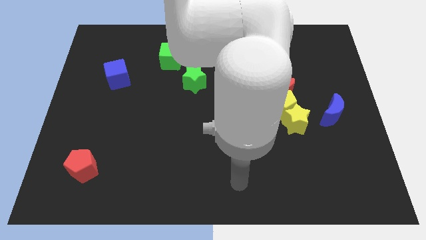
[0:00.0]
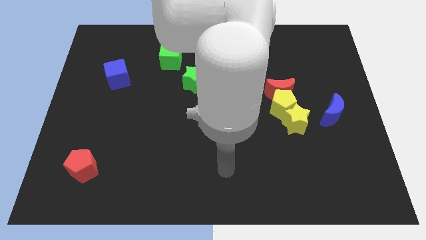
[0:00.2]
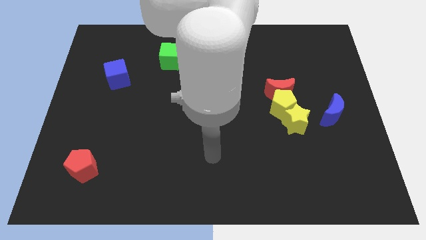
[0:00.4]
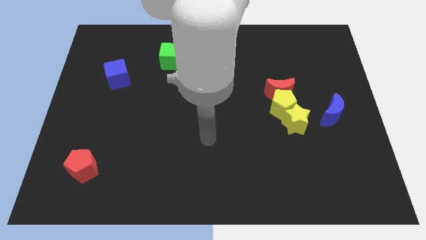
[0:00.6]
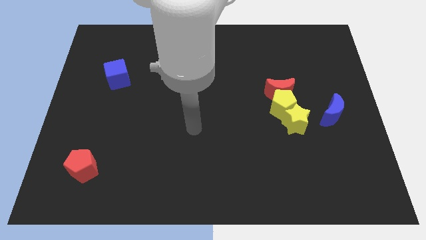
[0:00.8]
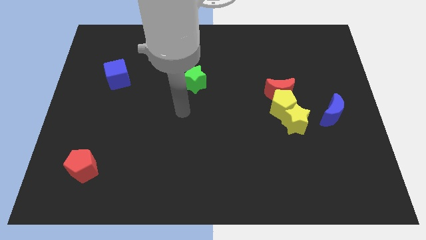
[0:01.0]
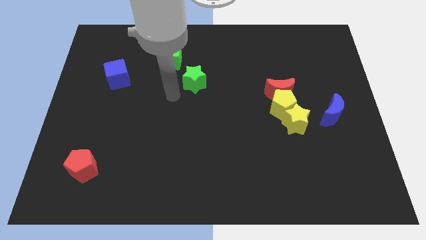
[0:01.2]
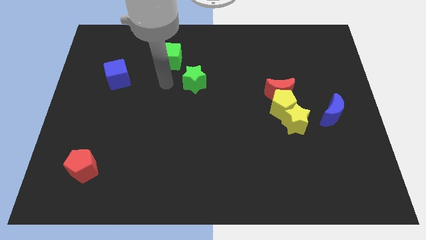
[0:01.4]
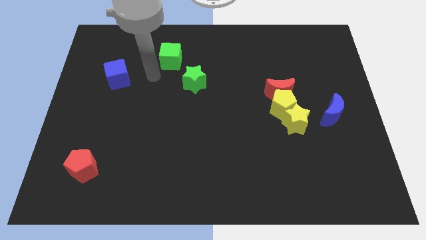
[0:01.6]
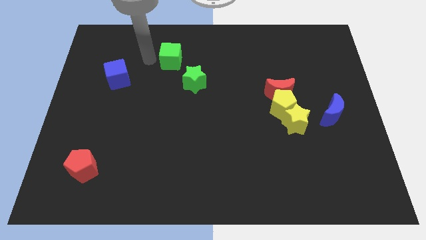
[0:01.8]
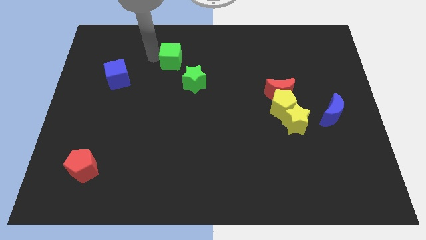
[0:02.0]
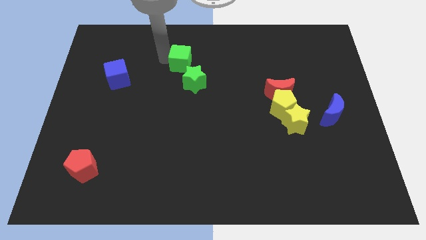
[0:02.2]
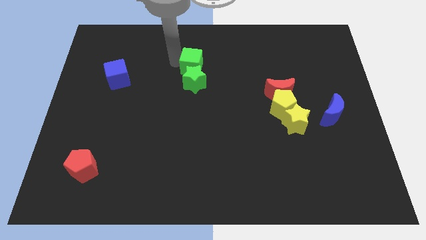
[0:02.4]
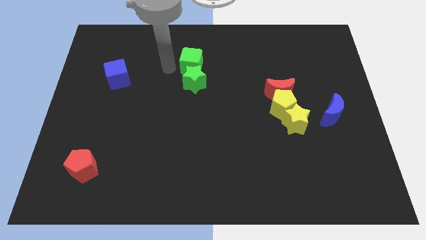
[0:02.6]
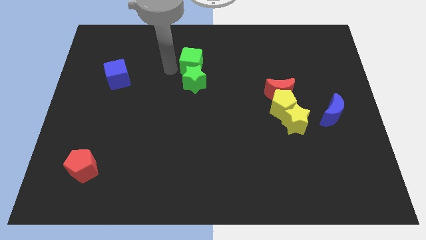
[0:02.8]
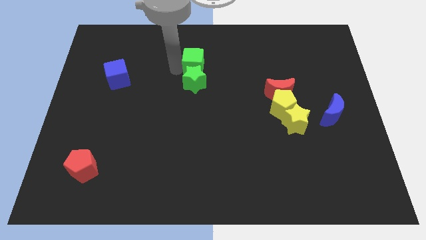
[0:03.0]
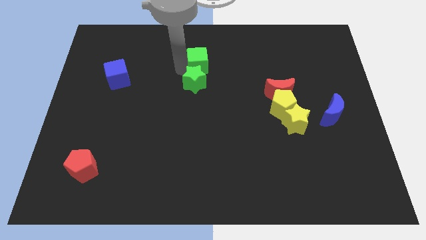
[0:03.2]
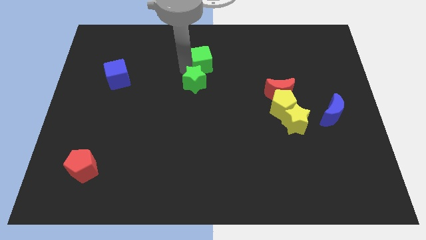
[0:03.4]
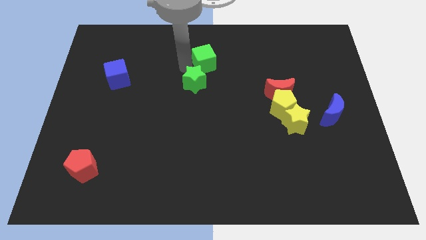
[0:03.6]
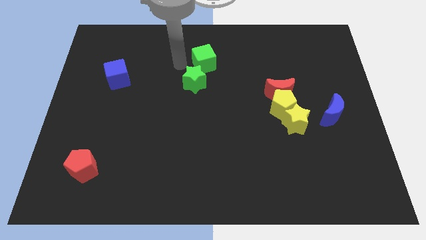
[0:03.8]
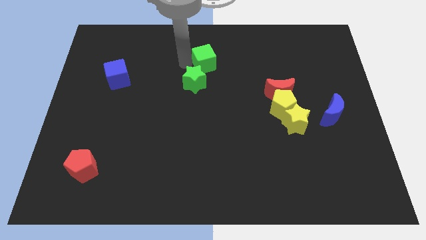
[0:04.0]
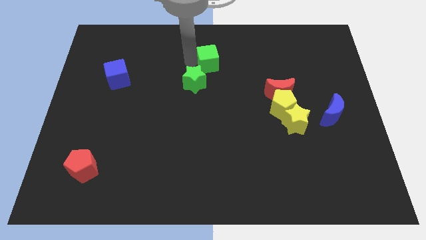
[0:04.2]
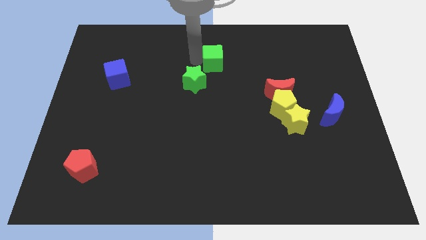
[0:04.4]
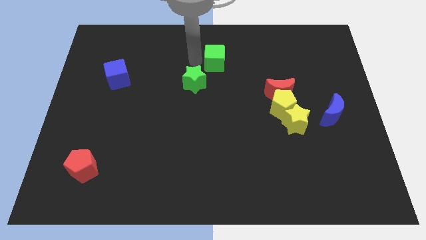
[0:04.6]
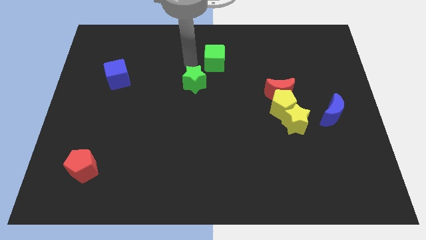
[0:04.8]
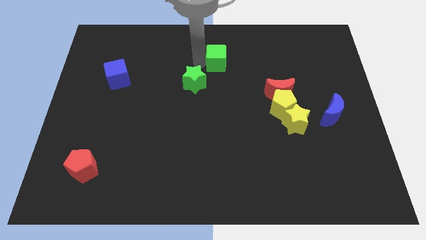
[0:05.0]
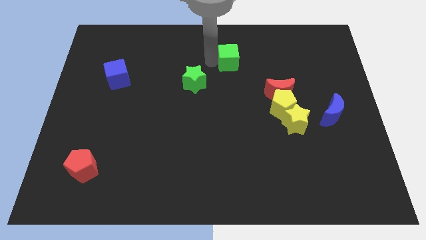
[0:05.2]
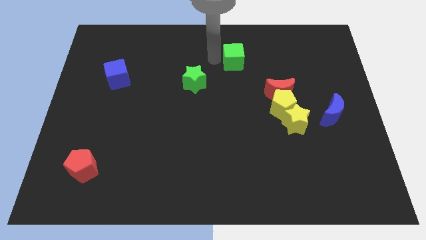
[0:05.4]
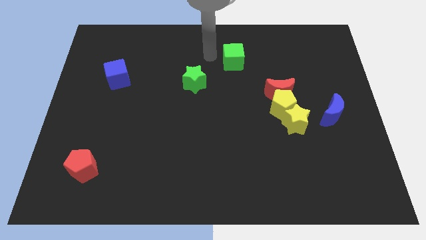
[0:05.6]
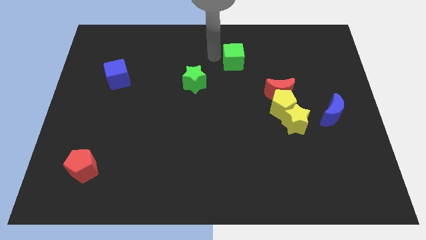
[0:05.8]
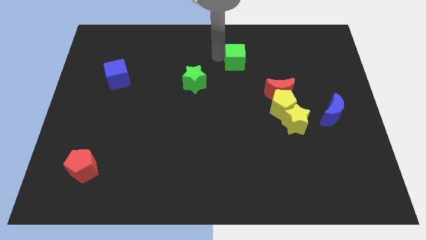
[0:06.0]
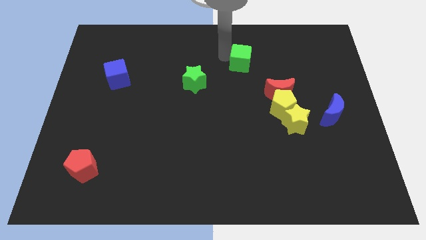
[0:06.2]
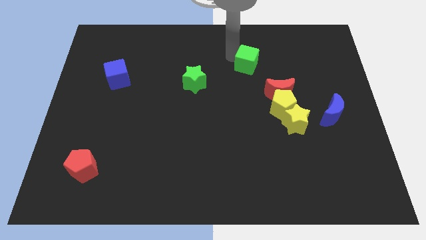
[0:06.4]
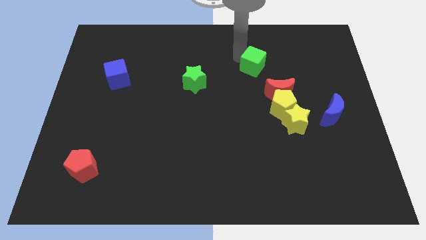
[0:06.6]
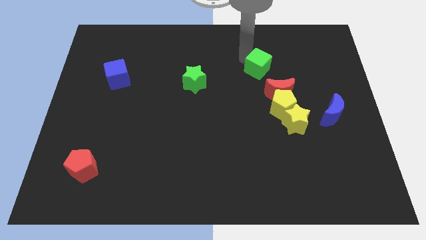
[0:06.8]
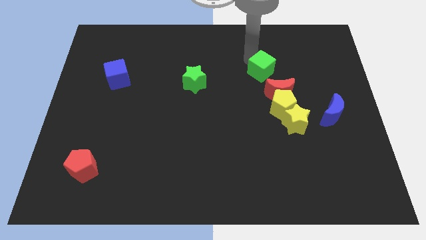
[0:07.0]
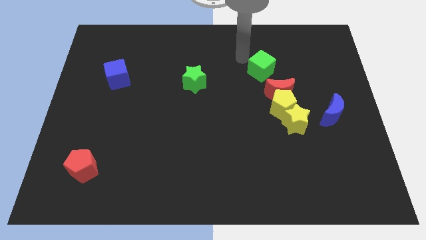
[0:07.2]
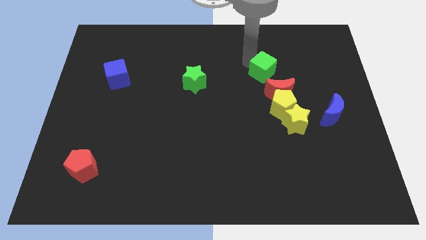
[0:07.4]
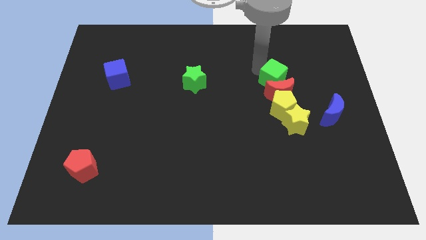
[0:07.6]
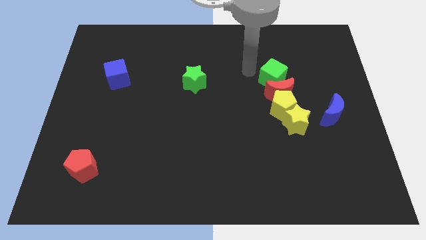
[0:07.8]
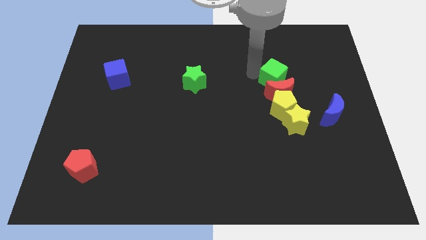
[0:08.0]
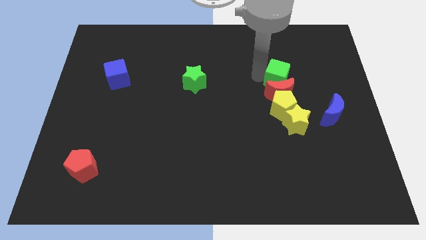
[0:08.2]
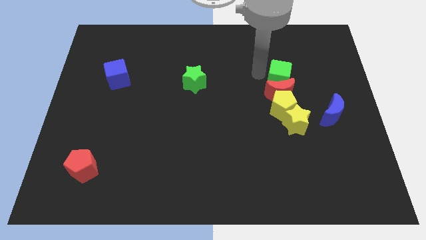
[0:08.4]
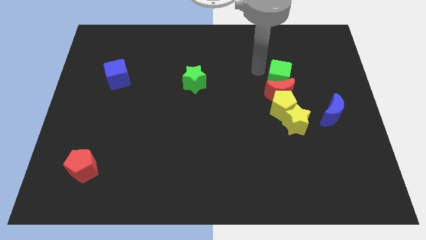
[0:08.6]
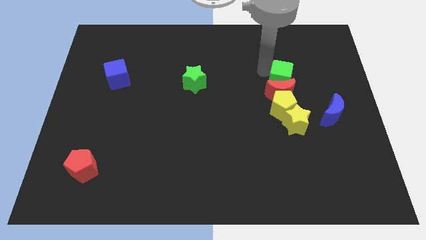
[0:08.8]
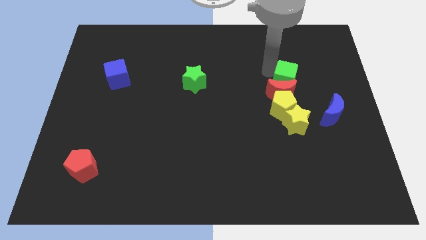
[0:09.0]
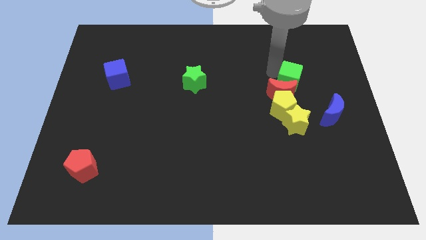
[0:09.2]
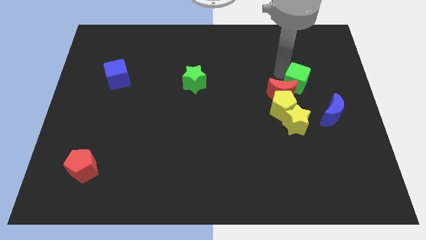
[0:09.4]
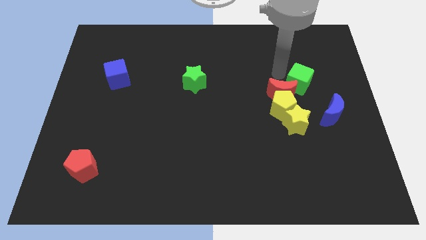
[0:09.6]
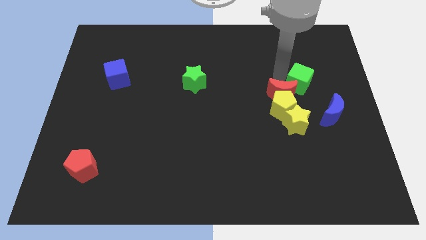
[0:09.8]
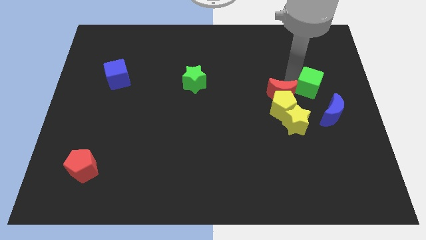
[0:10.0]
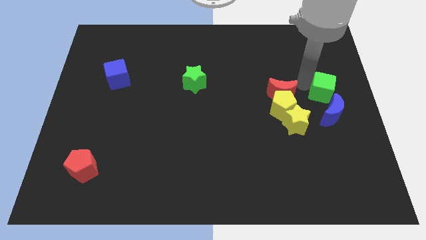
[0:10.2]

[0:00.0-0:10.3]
move the green cube to the center right

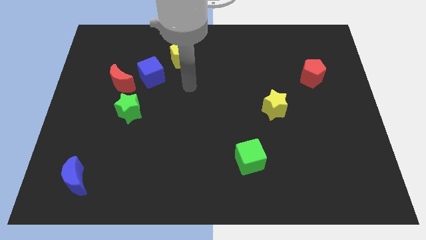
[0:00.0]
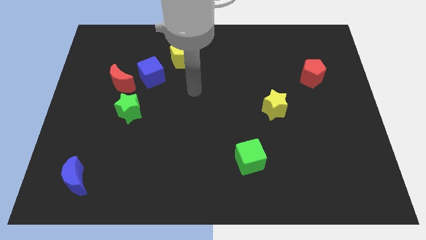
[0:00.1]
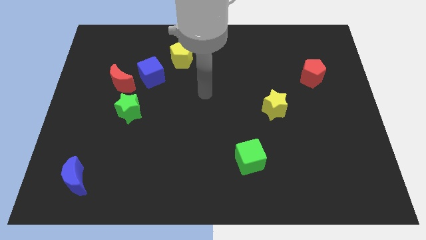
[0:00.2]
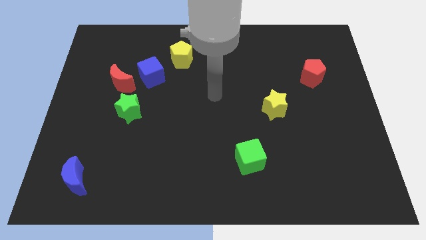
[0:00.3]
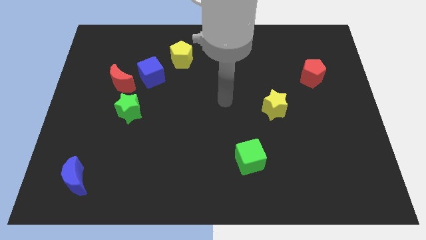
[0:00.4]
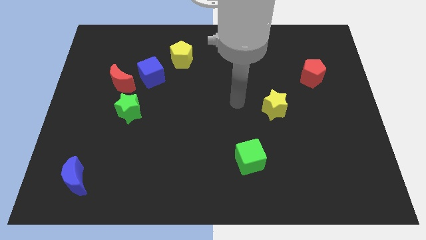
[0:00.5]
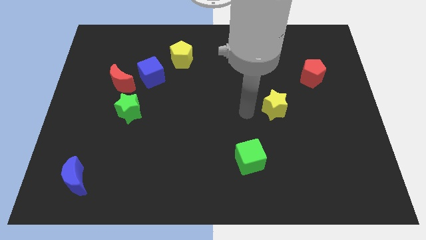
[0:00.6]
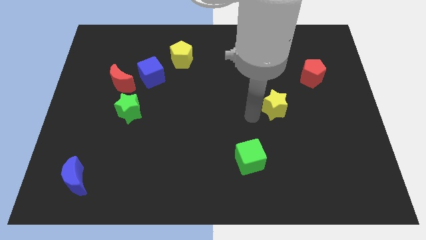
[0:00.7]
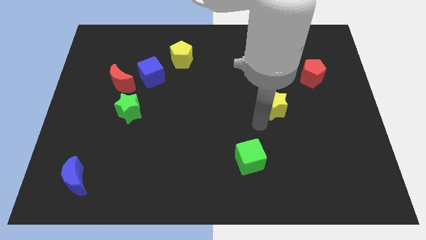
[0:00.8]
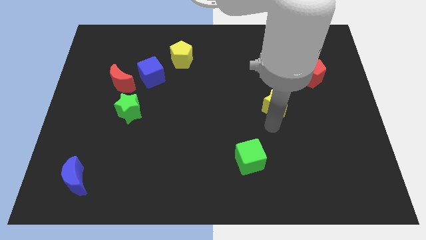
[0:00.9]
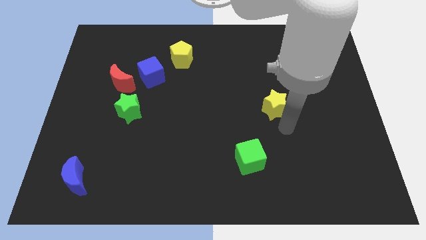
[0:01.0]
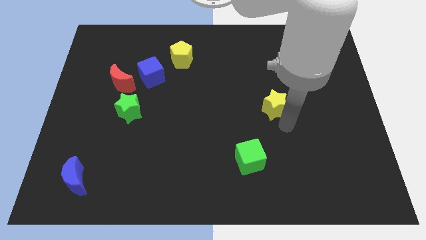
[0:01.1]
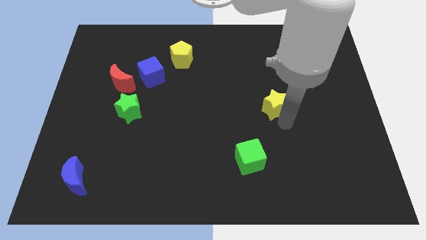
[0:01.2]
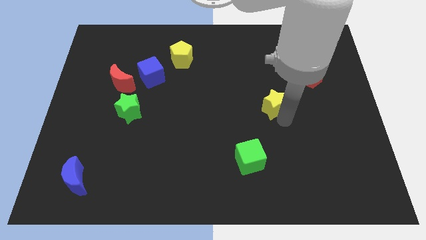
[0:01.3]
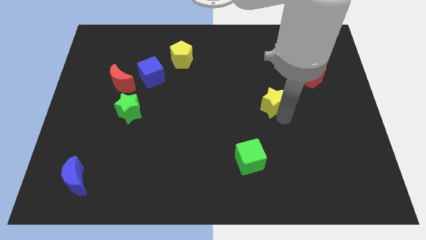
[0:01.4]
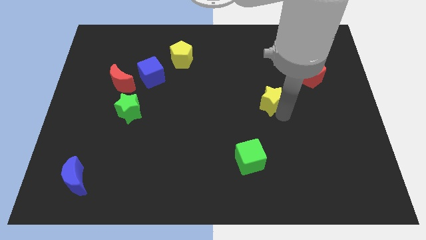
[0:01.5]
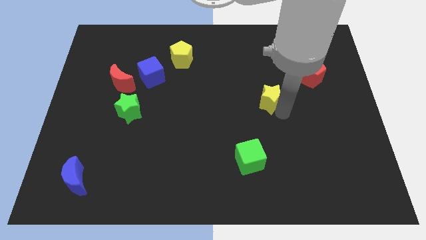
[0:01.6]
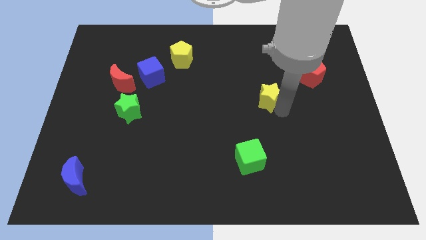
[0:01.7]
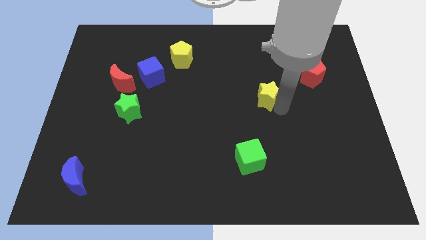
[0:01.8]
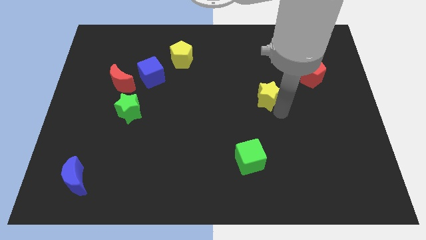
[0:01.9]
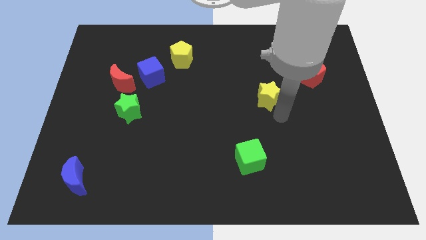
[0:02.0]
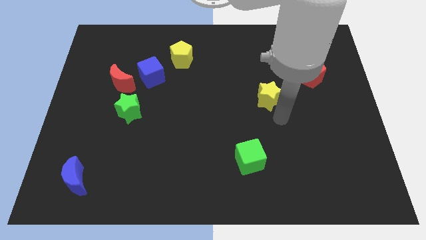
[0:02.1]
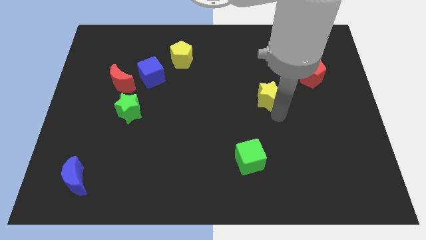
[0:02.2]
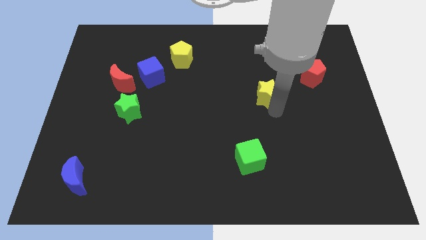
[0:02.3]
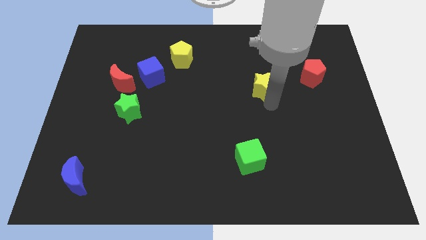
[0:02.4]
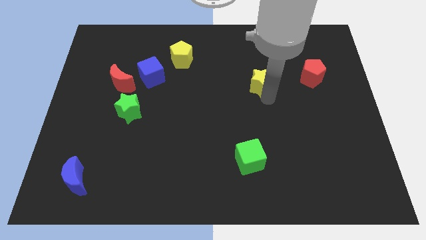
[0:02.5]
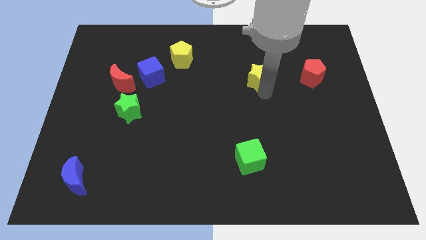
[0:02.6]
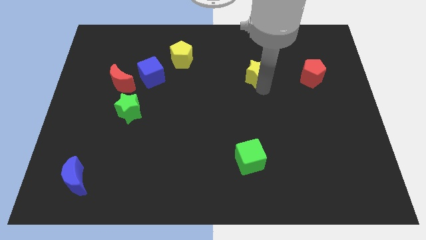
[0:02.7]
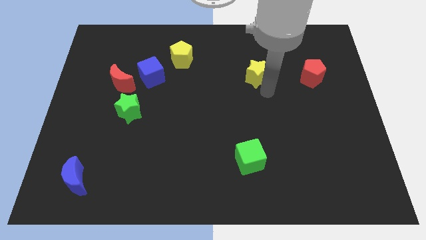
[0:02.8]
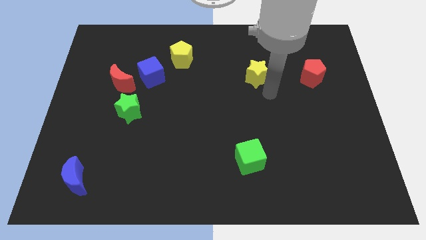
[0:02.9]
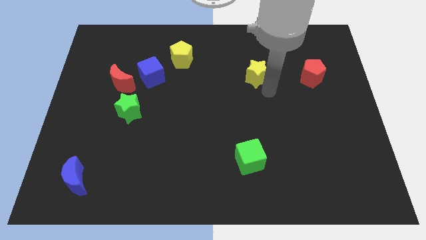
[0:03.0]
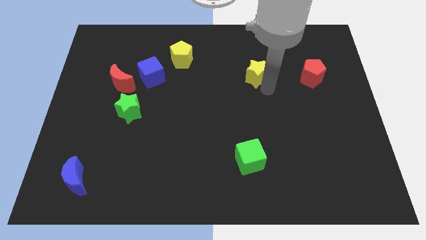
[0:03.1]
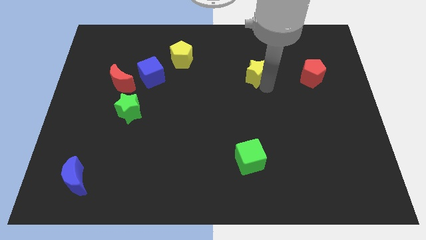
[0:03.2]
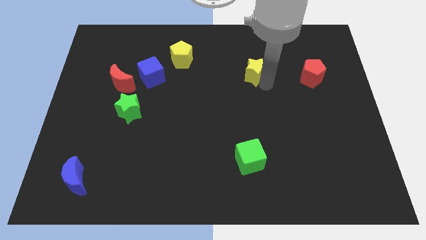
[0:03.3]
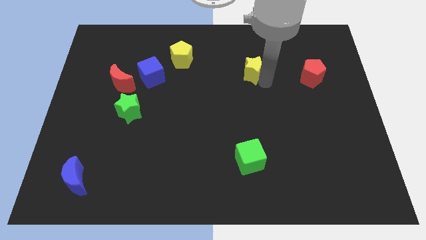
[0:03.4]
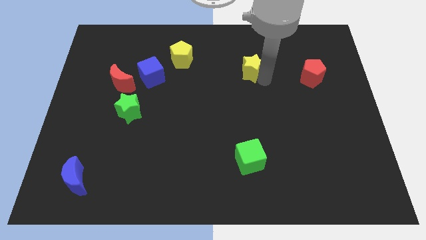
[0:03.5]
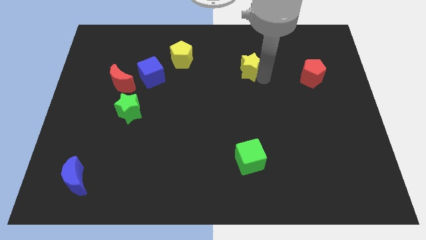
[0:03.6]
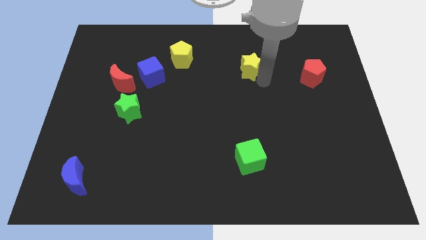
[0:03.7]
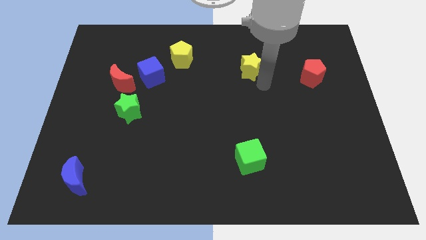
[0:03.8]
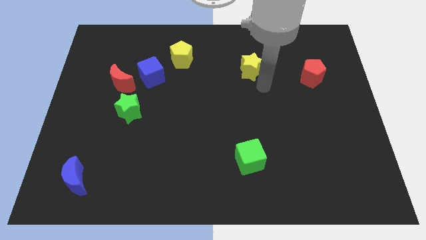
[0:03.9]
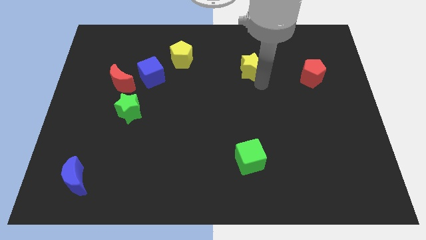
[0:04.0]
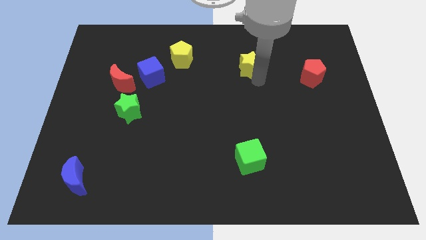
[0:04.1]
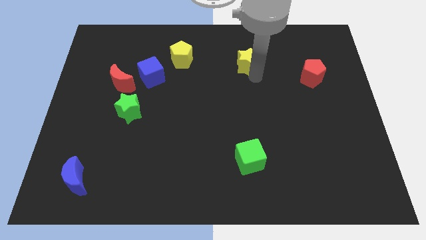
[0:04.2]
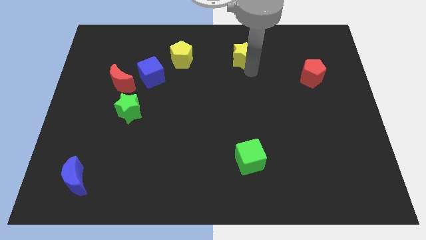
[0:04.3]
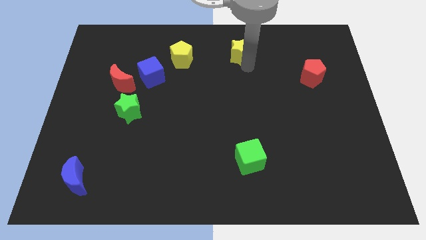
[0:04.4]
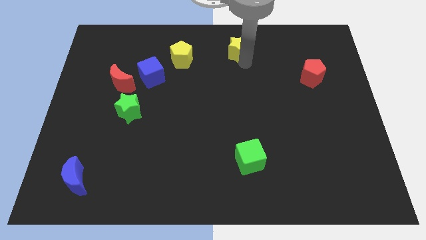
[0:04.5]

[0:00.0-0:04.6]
push the yellow star to the top
